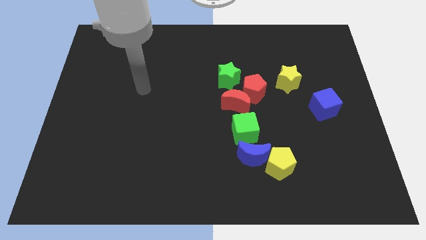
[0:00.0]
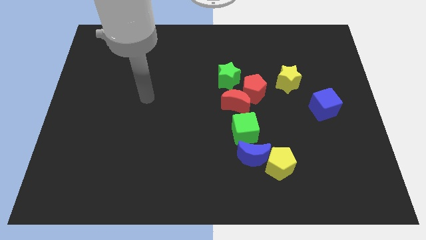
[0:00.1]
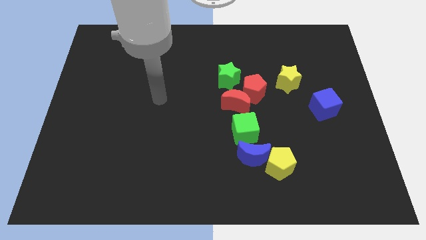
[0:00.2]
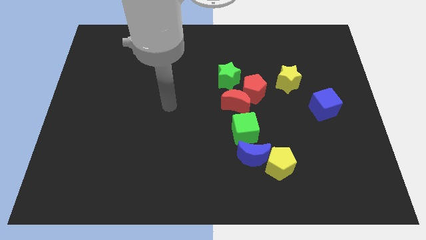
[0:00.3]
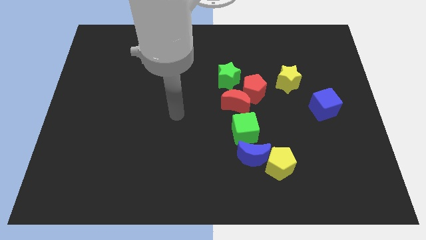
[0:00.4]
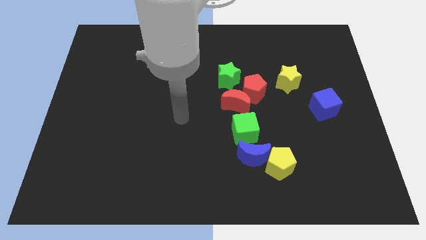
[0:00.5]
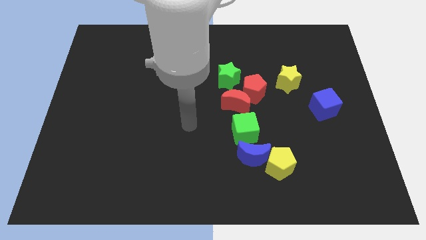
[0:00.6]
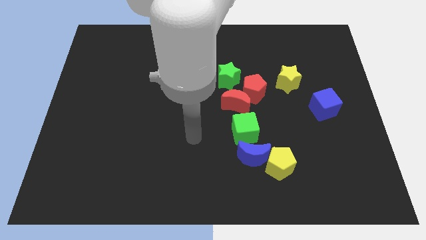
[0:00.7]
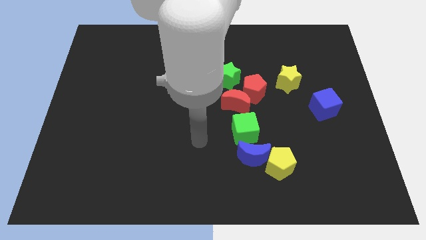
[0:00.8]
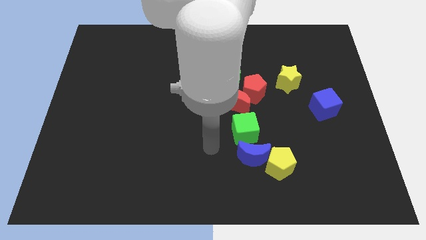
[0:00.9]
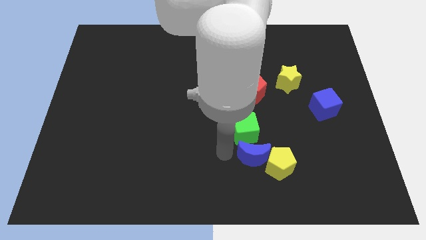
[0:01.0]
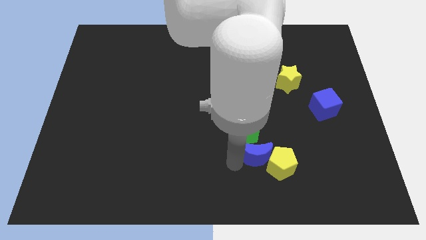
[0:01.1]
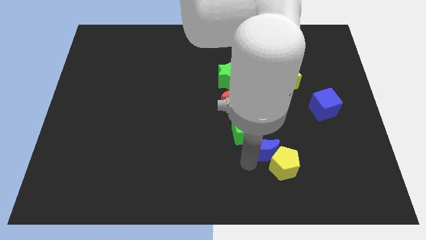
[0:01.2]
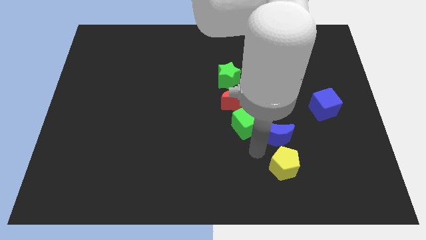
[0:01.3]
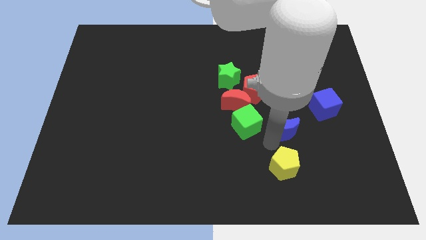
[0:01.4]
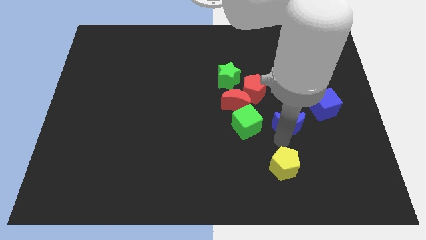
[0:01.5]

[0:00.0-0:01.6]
move the yellow pentagon away from the blue moon

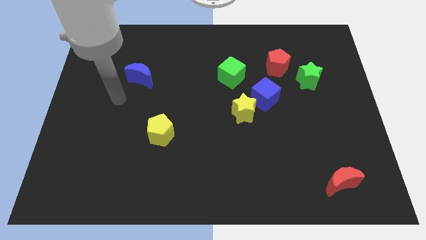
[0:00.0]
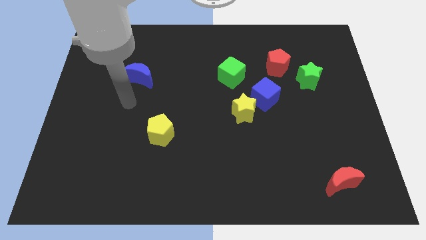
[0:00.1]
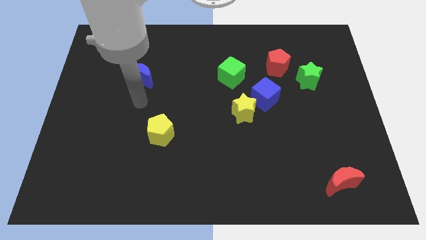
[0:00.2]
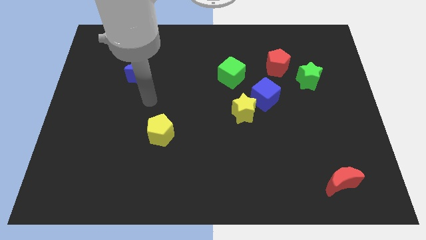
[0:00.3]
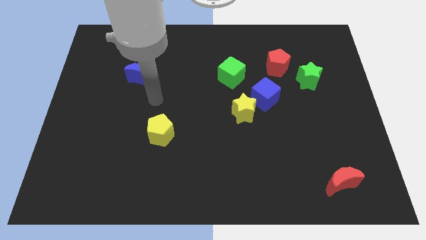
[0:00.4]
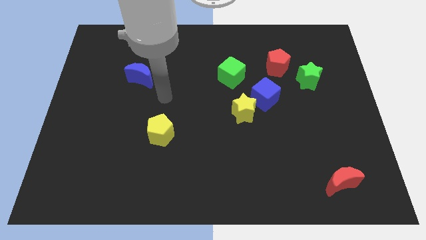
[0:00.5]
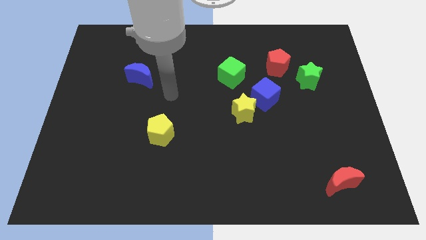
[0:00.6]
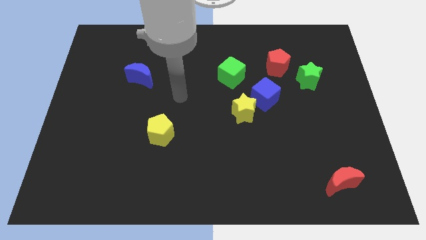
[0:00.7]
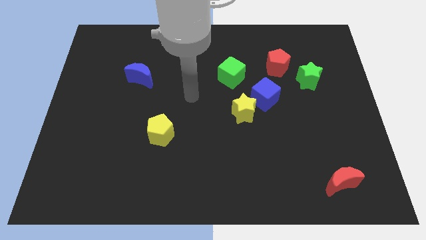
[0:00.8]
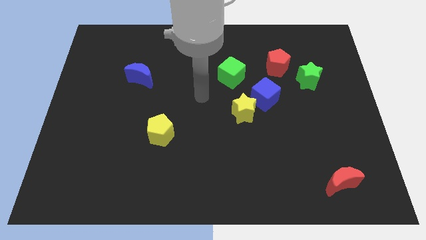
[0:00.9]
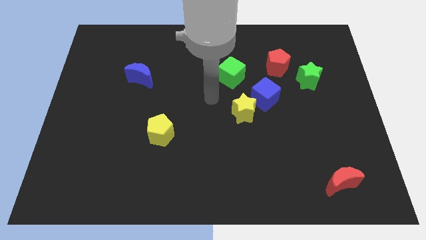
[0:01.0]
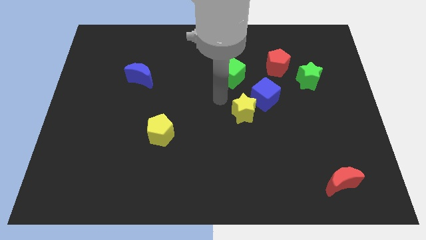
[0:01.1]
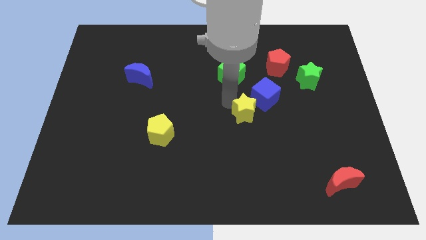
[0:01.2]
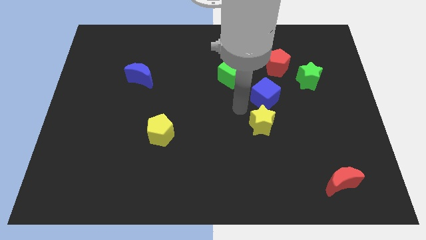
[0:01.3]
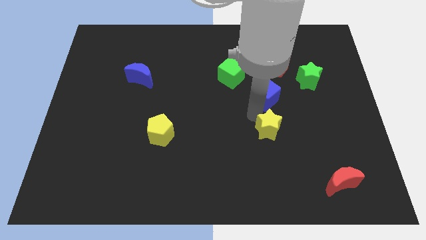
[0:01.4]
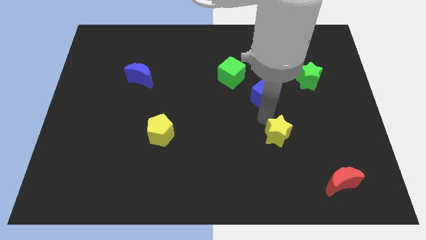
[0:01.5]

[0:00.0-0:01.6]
separate the blue cube from the yellow star

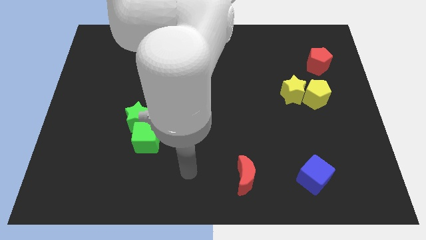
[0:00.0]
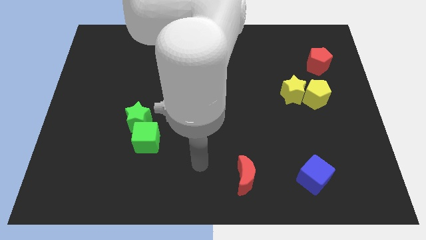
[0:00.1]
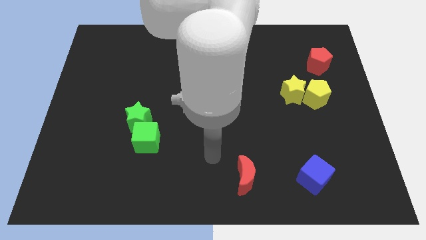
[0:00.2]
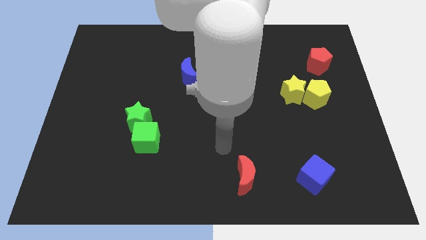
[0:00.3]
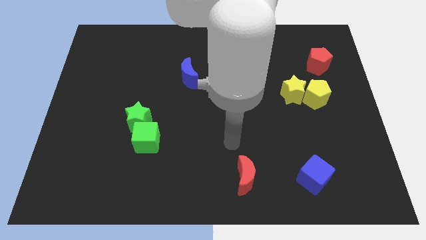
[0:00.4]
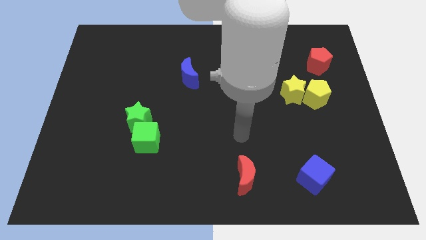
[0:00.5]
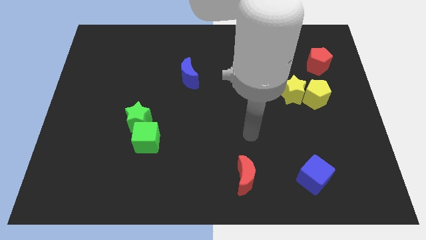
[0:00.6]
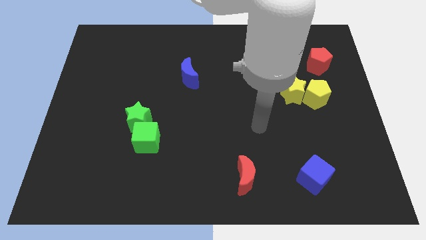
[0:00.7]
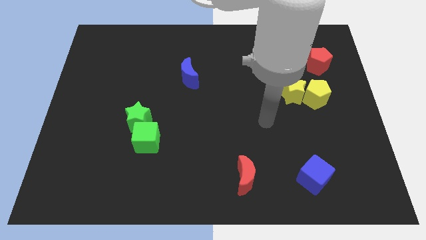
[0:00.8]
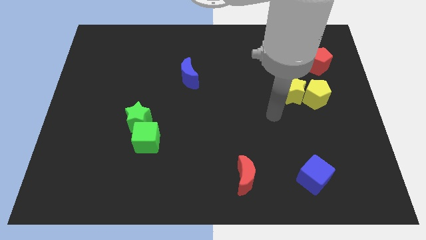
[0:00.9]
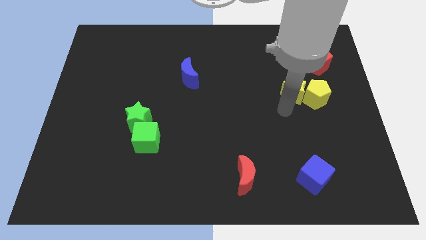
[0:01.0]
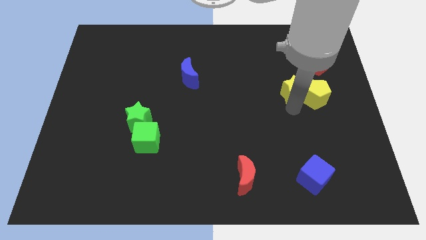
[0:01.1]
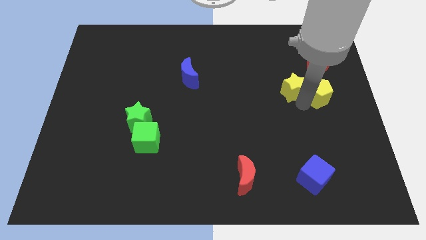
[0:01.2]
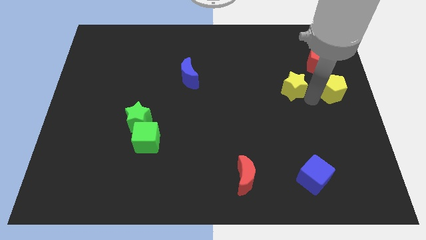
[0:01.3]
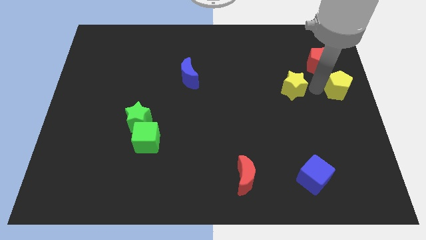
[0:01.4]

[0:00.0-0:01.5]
separate the yellow star from the yellow pentagon

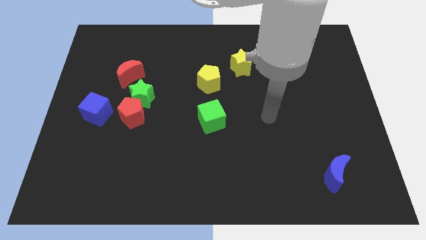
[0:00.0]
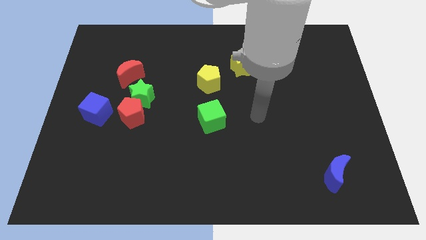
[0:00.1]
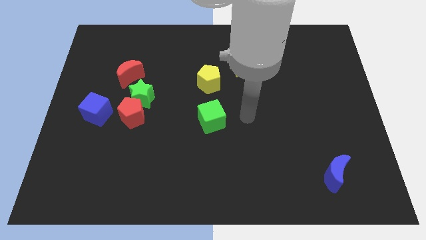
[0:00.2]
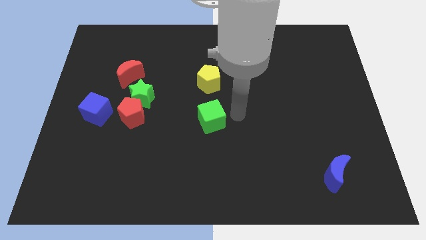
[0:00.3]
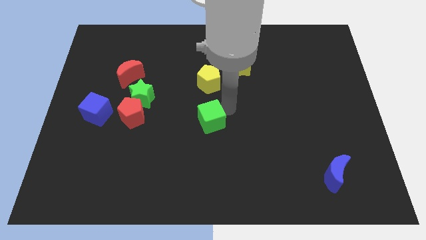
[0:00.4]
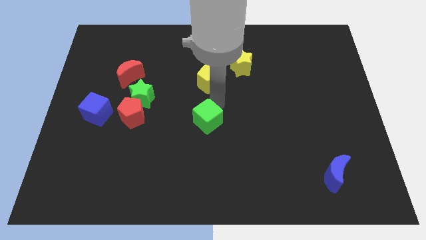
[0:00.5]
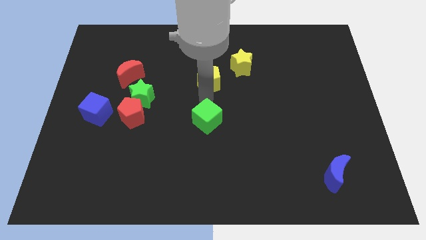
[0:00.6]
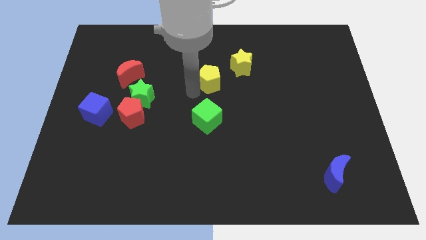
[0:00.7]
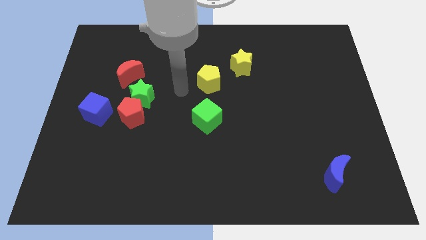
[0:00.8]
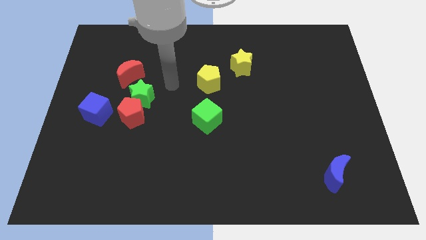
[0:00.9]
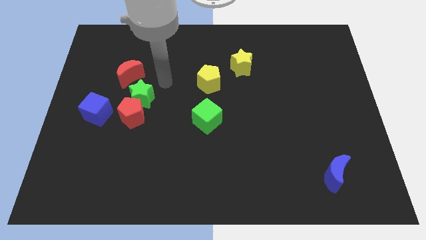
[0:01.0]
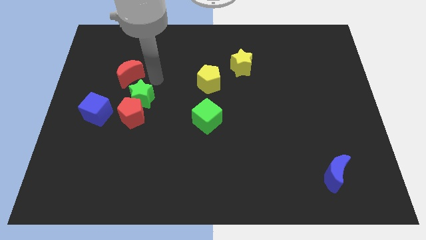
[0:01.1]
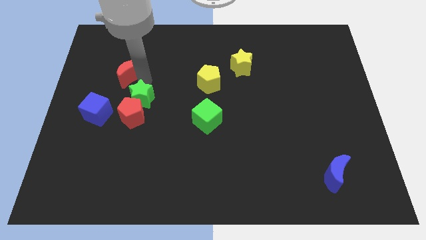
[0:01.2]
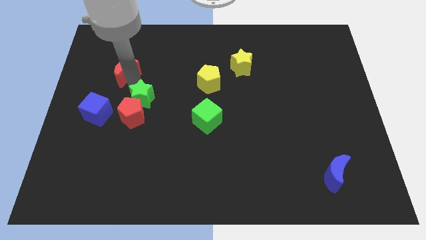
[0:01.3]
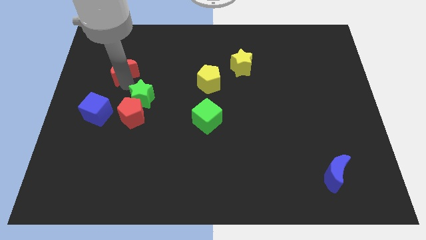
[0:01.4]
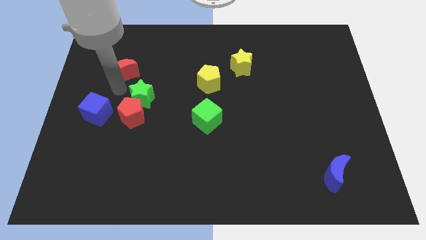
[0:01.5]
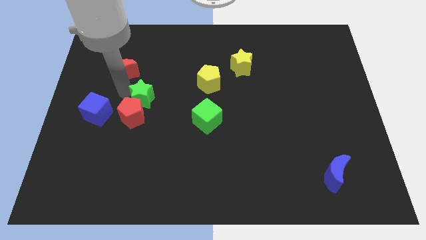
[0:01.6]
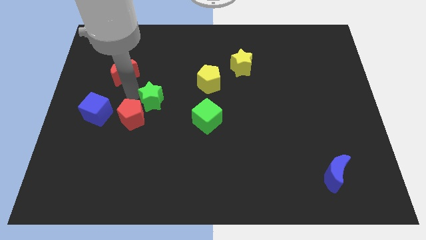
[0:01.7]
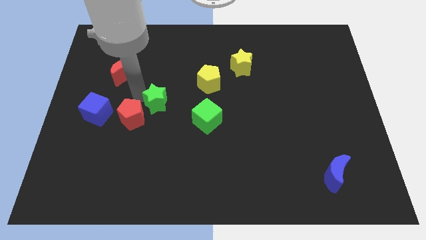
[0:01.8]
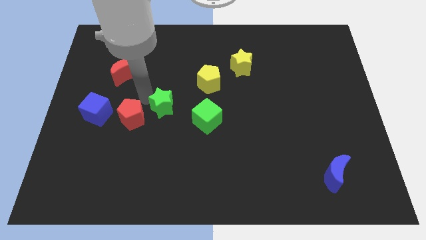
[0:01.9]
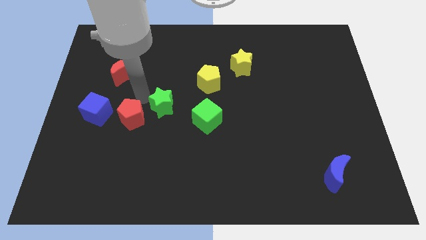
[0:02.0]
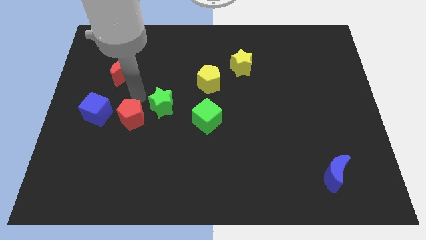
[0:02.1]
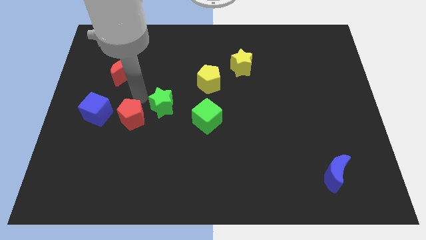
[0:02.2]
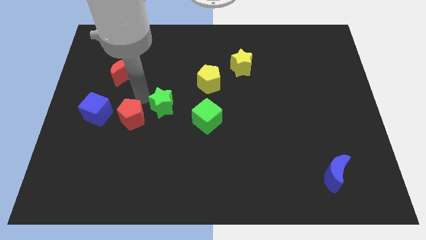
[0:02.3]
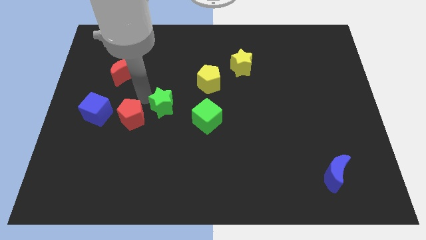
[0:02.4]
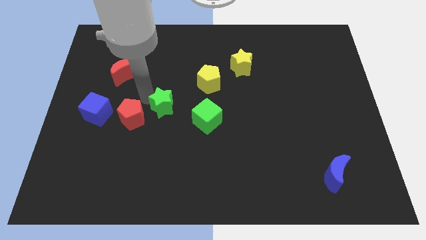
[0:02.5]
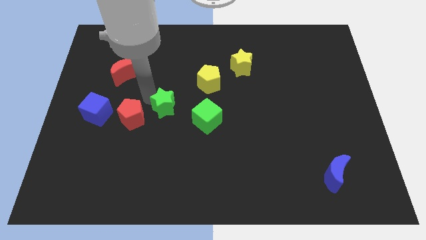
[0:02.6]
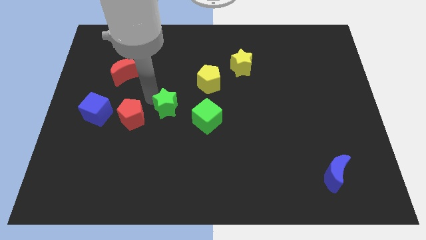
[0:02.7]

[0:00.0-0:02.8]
move the green star away from the red pentagon and red moon

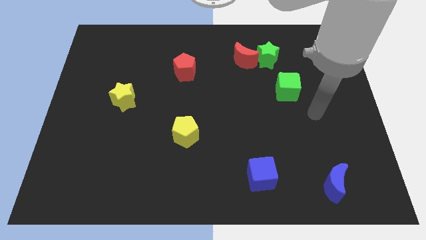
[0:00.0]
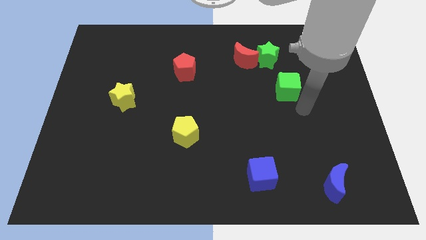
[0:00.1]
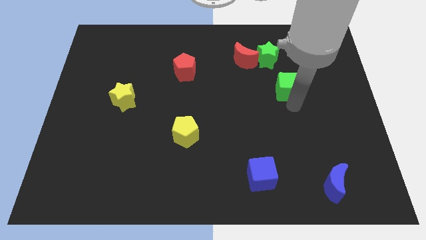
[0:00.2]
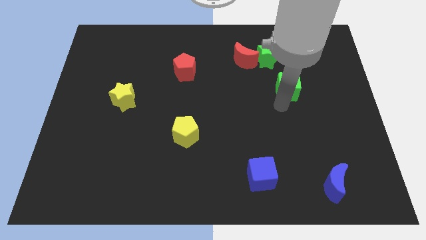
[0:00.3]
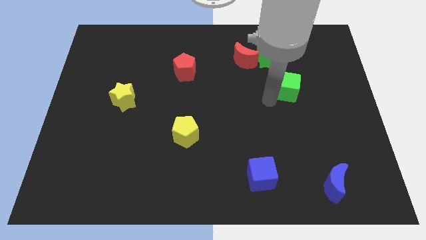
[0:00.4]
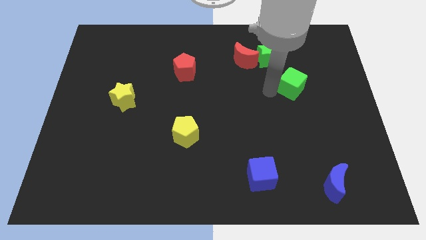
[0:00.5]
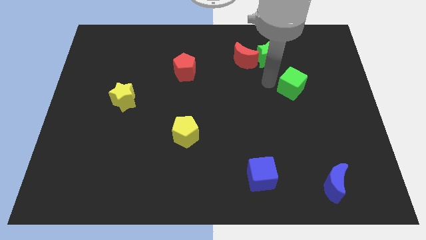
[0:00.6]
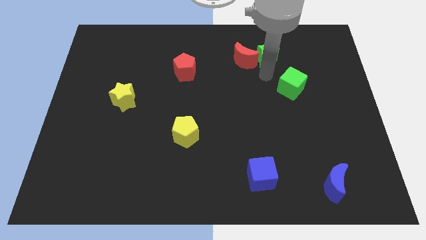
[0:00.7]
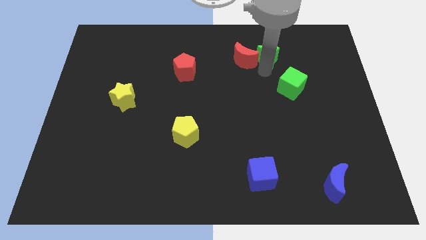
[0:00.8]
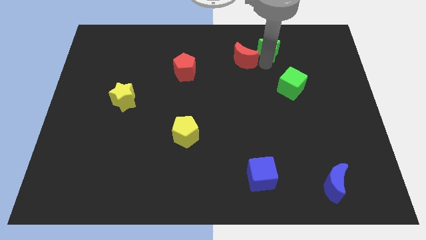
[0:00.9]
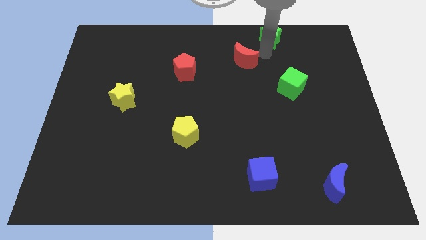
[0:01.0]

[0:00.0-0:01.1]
pull the red moon apart from the green star

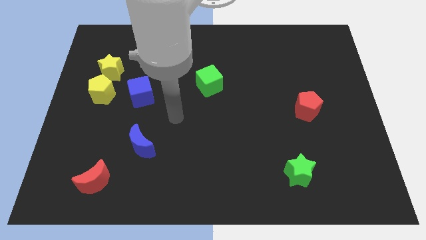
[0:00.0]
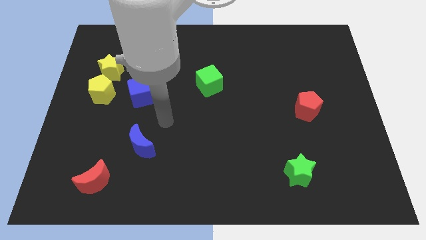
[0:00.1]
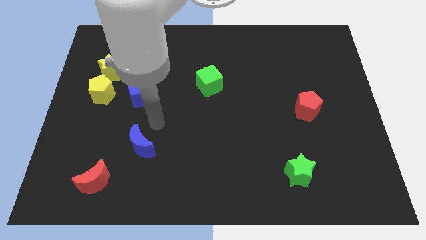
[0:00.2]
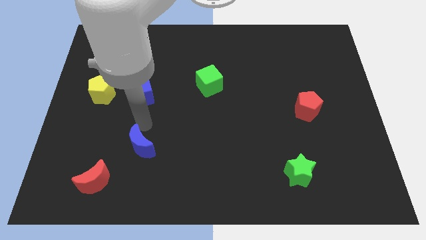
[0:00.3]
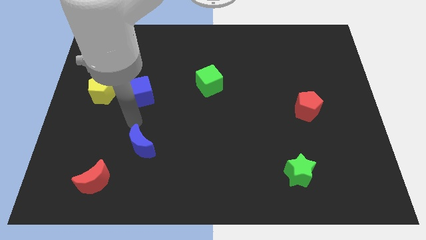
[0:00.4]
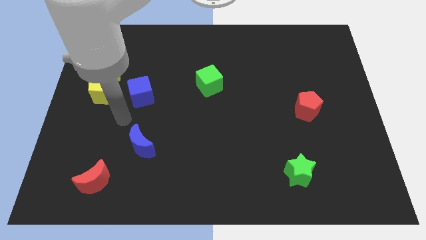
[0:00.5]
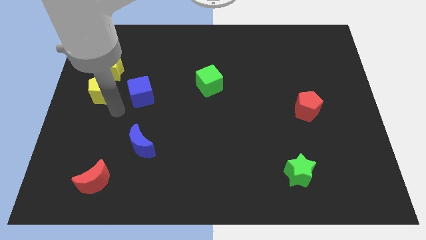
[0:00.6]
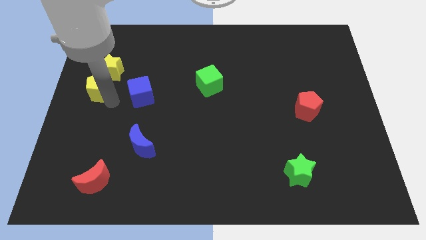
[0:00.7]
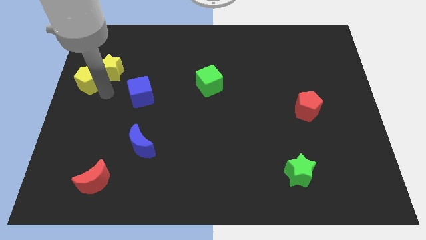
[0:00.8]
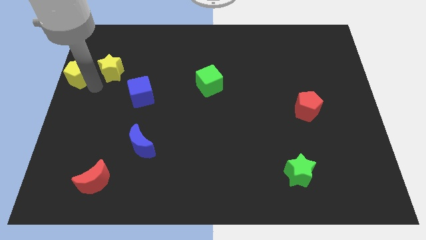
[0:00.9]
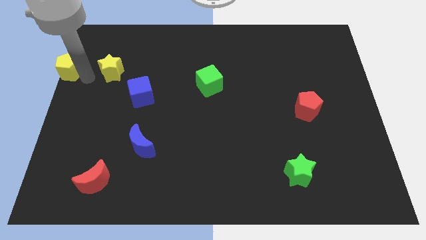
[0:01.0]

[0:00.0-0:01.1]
move the yellow star away from the yellow pentagon
